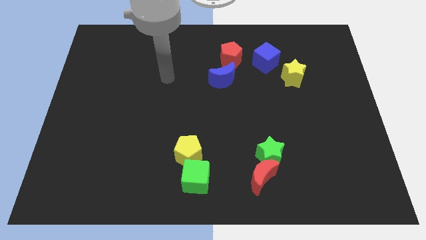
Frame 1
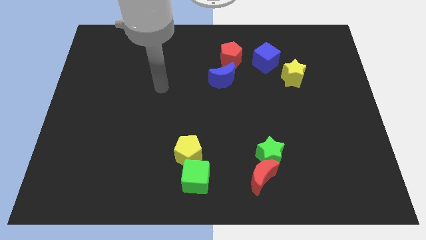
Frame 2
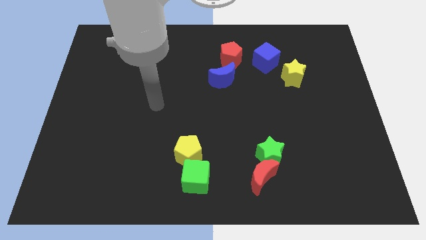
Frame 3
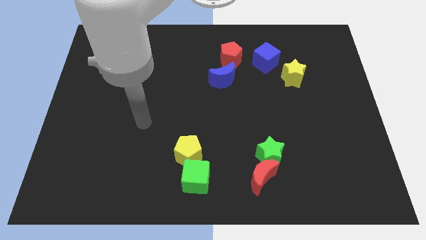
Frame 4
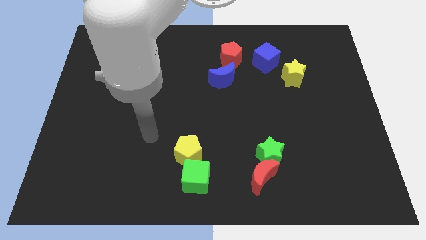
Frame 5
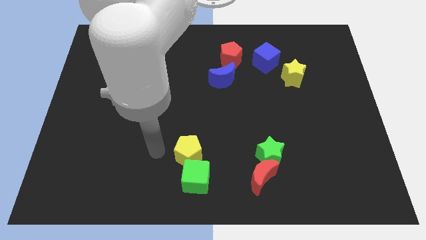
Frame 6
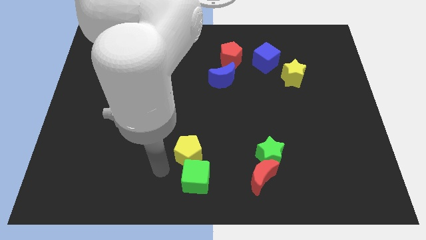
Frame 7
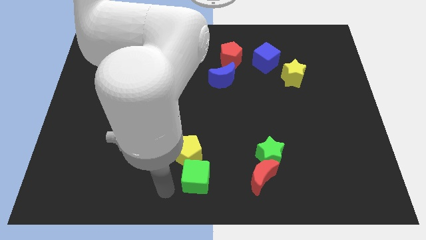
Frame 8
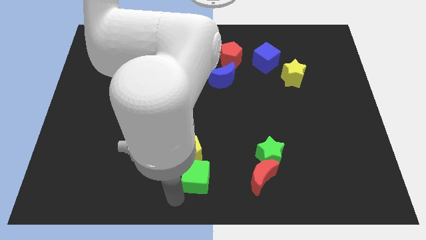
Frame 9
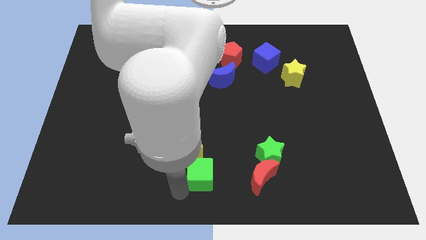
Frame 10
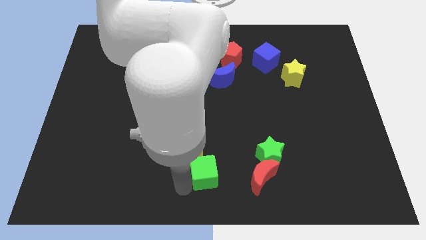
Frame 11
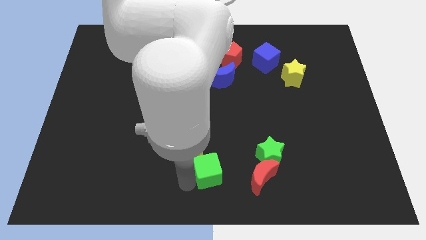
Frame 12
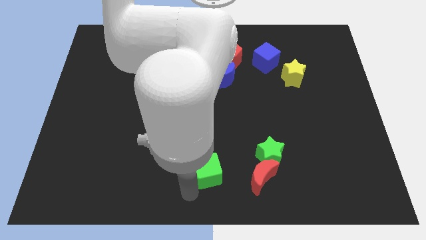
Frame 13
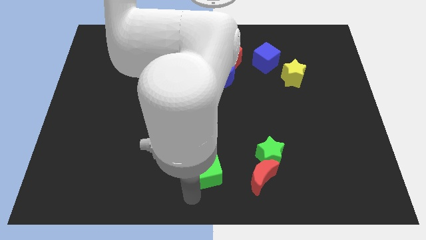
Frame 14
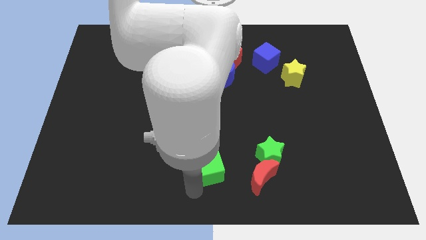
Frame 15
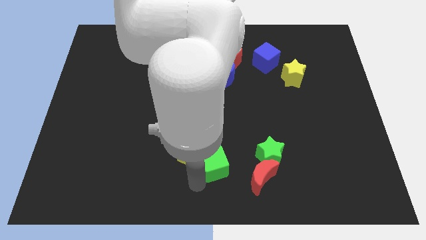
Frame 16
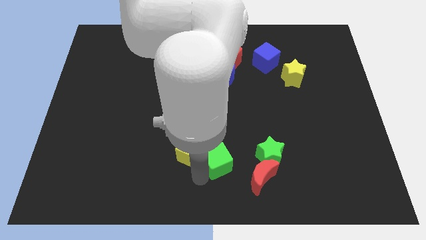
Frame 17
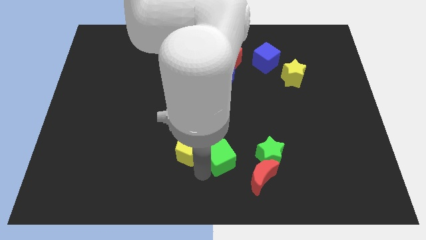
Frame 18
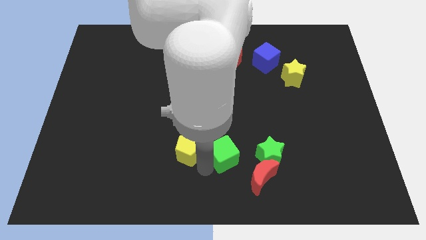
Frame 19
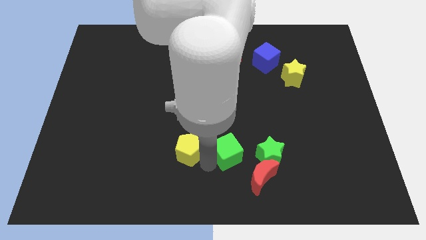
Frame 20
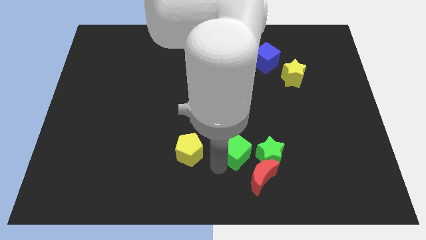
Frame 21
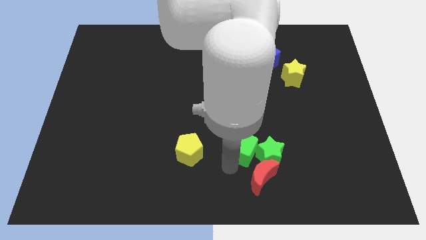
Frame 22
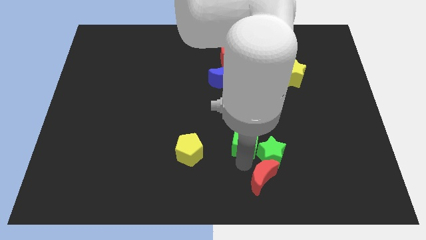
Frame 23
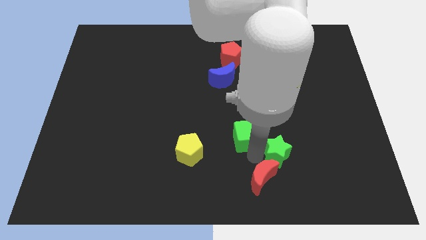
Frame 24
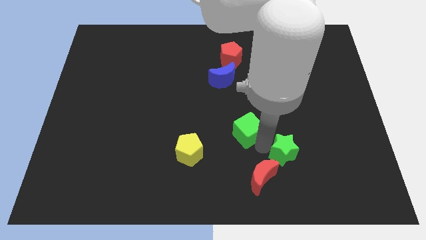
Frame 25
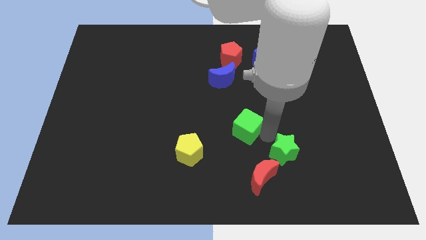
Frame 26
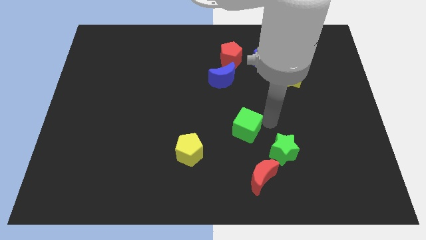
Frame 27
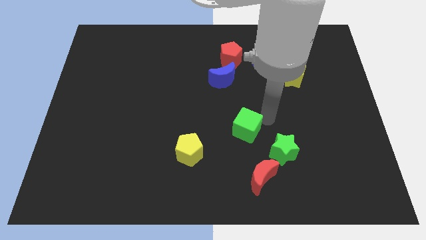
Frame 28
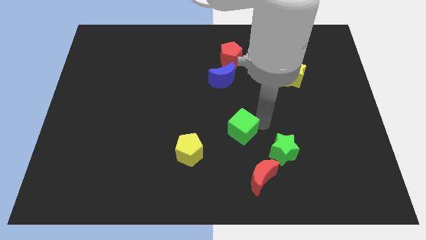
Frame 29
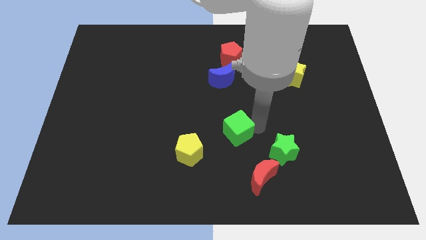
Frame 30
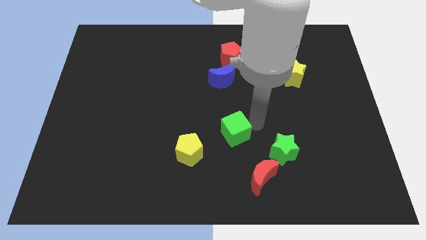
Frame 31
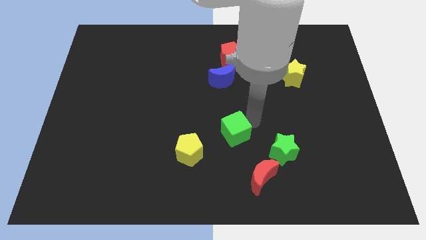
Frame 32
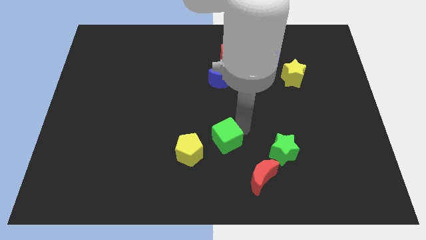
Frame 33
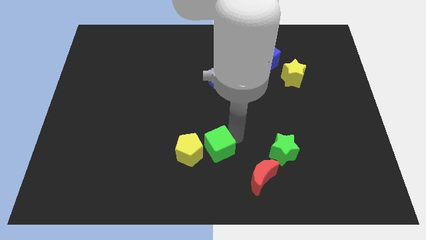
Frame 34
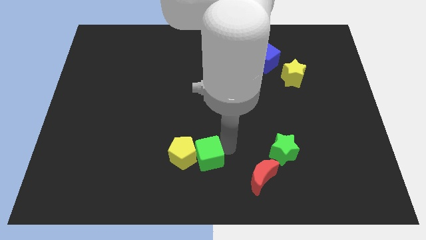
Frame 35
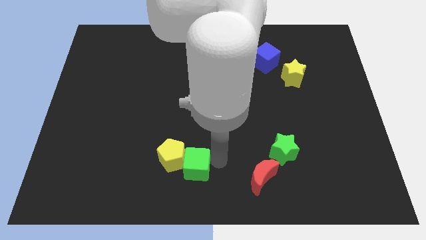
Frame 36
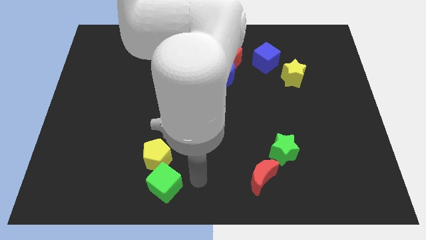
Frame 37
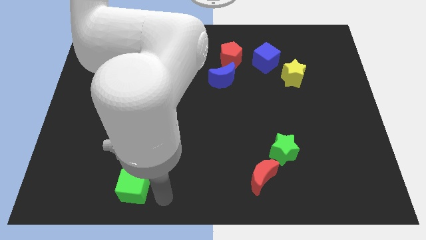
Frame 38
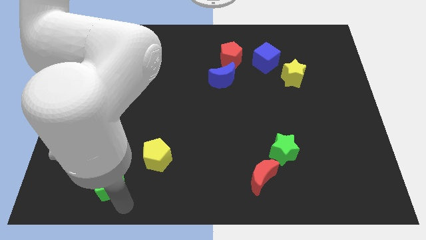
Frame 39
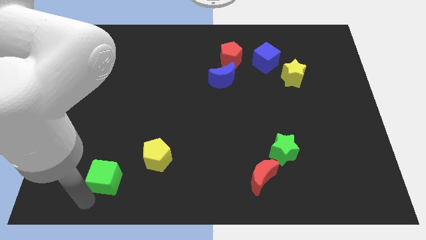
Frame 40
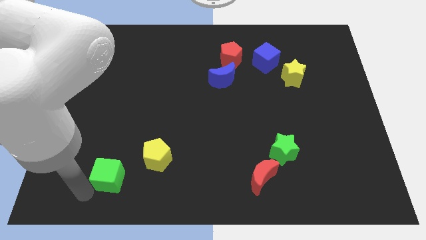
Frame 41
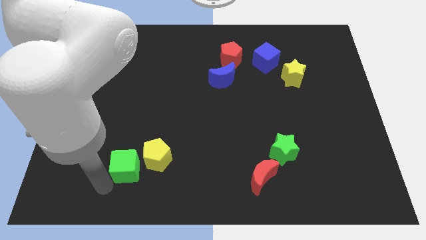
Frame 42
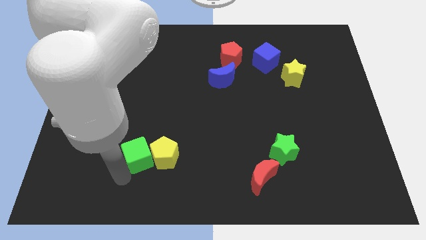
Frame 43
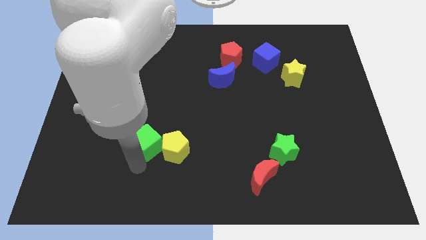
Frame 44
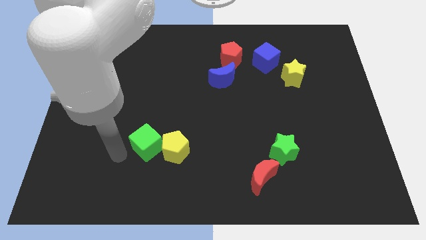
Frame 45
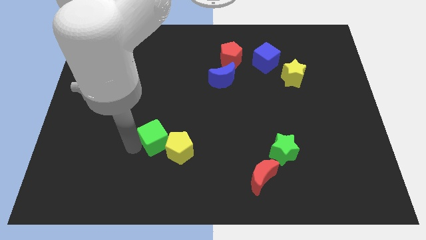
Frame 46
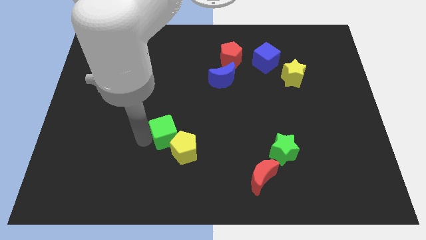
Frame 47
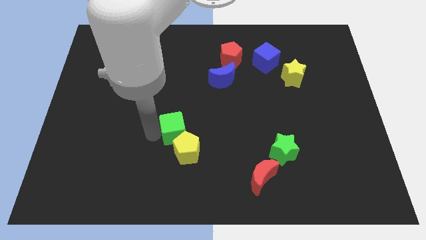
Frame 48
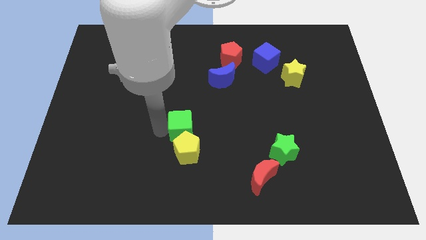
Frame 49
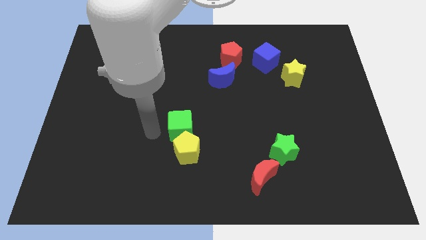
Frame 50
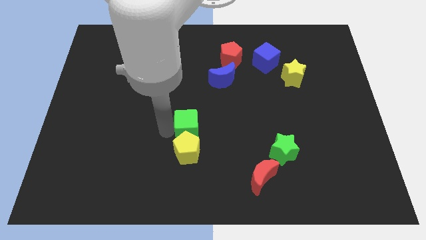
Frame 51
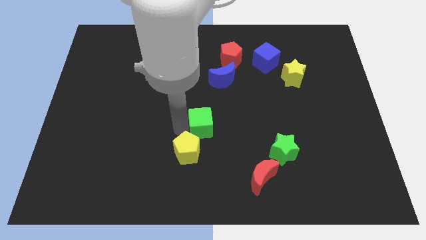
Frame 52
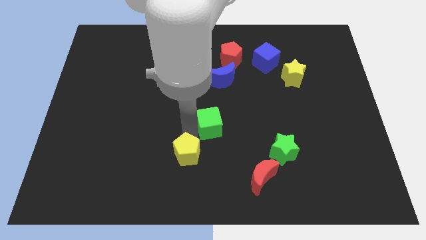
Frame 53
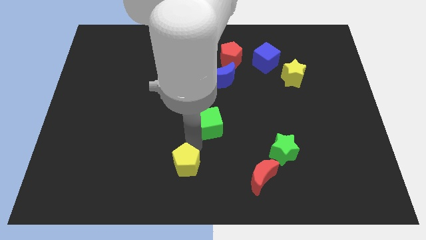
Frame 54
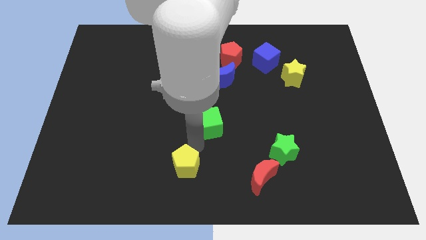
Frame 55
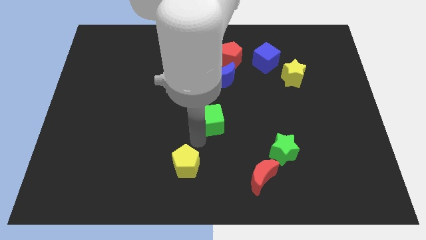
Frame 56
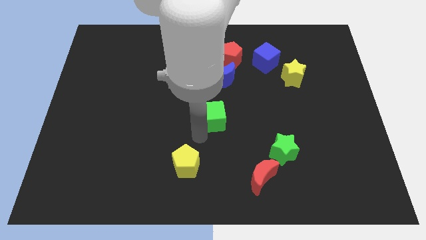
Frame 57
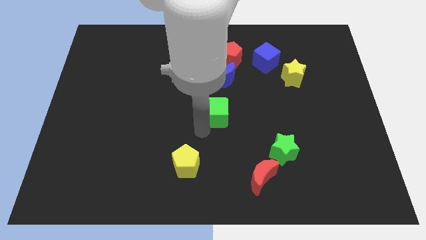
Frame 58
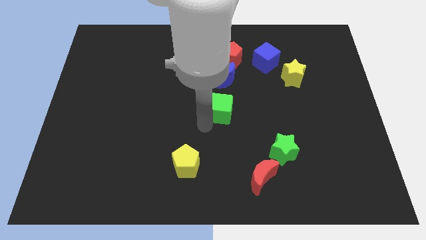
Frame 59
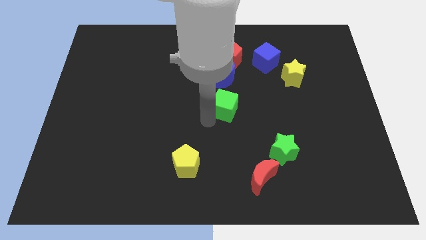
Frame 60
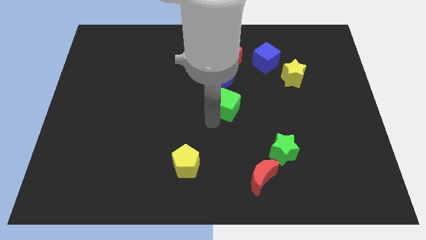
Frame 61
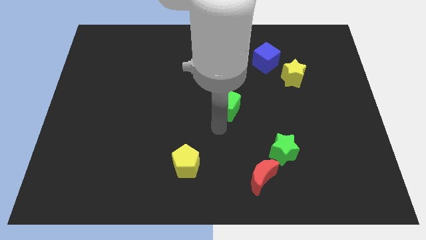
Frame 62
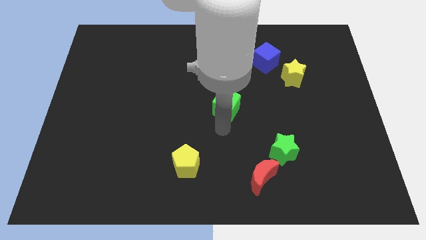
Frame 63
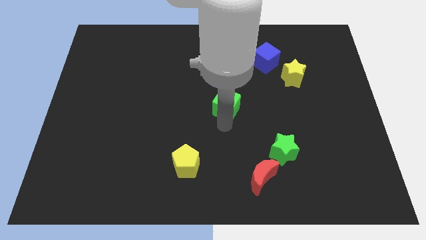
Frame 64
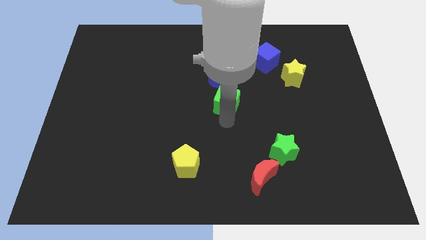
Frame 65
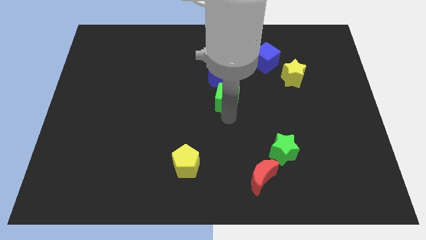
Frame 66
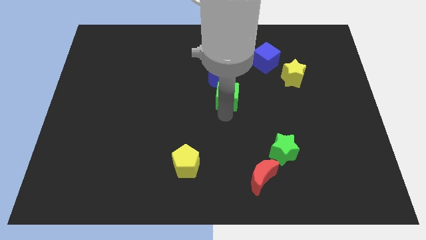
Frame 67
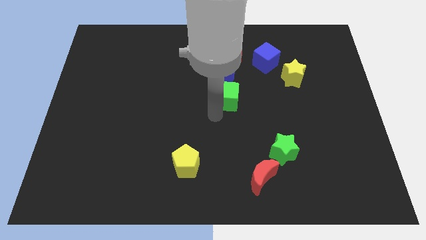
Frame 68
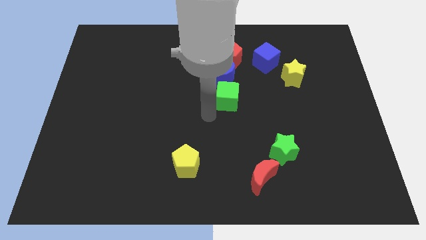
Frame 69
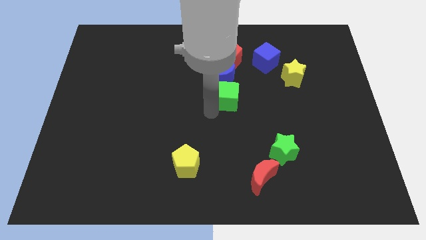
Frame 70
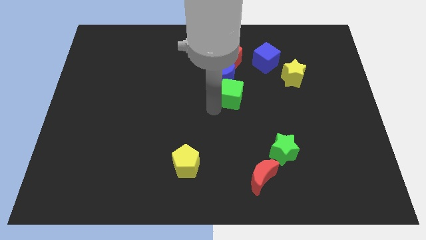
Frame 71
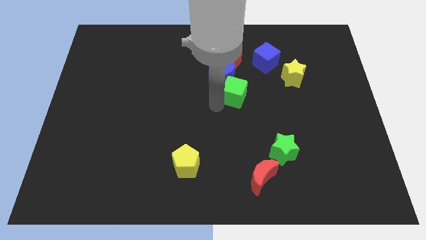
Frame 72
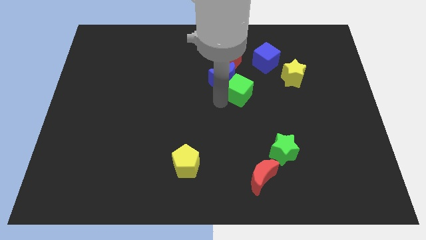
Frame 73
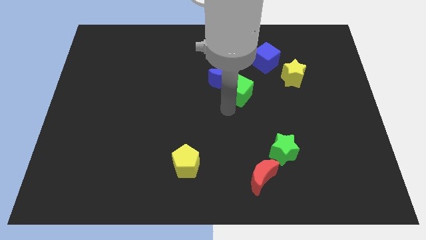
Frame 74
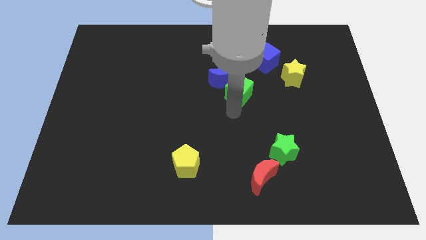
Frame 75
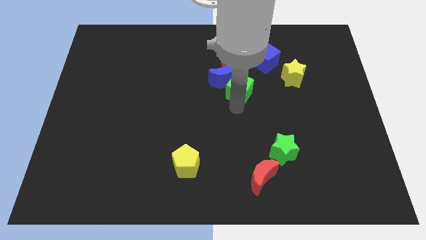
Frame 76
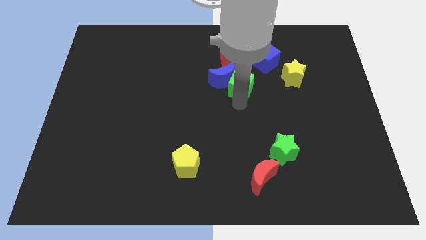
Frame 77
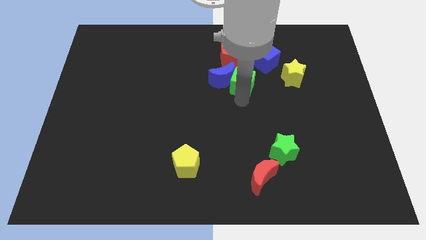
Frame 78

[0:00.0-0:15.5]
put the green cube diagonally up and to the right of the blue moon

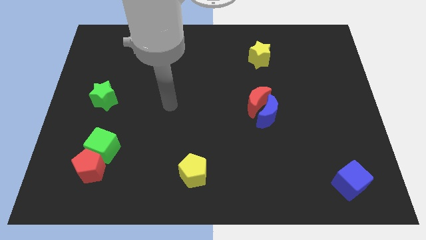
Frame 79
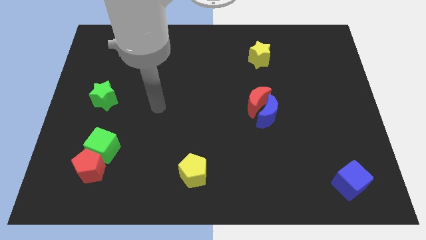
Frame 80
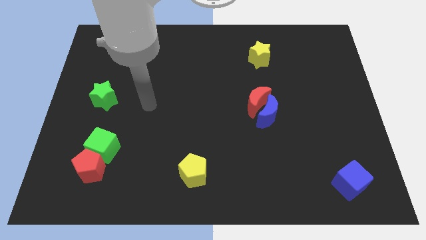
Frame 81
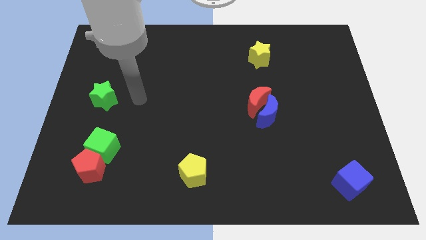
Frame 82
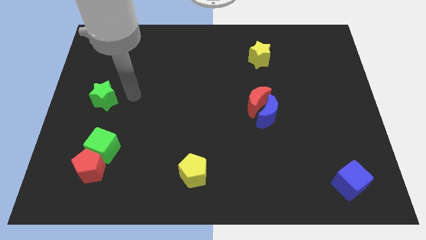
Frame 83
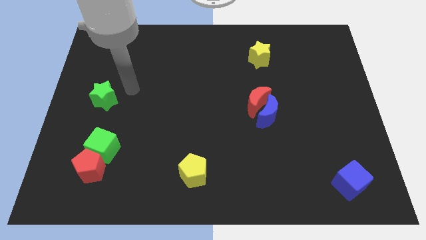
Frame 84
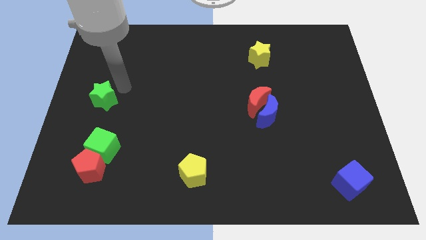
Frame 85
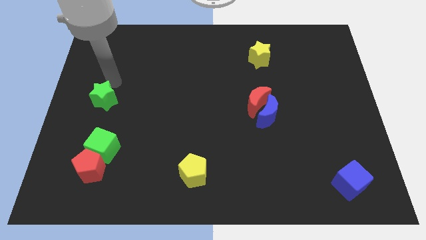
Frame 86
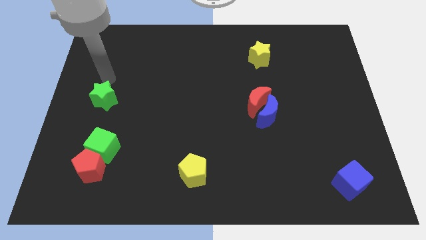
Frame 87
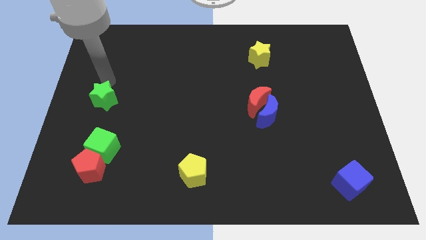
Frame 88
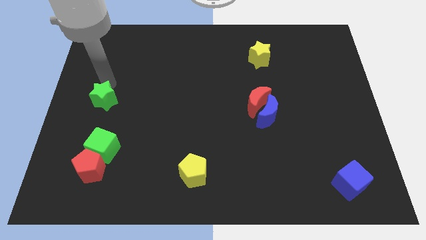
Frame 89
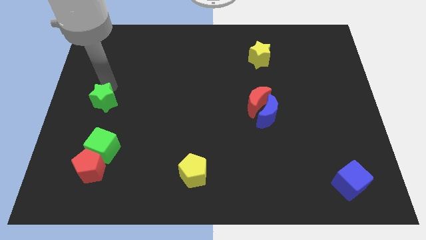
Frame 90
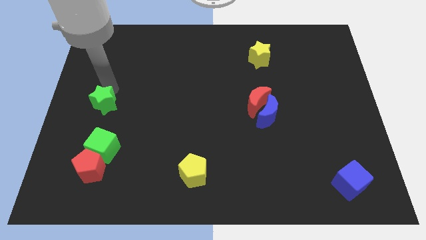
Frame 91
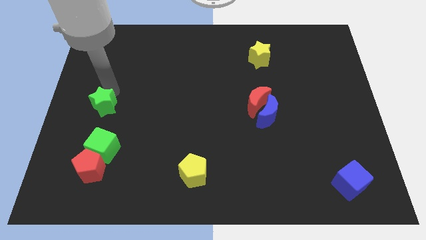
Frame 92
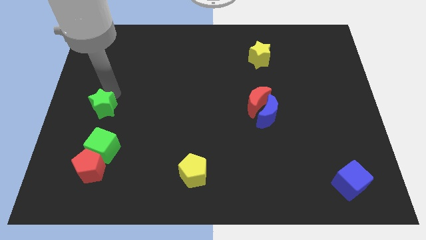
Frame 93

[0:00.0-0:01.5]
slide the green star to the top side of the red pentagon
